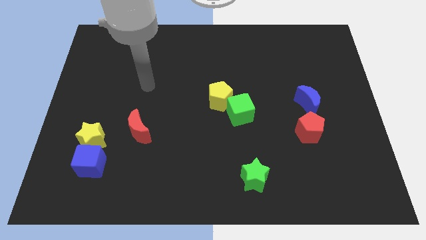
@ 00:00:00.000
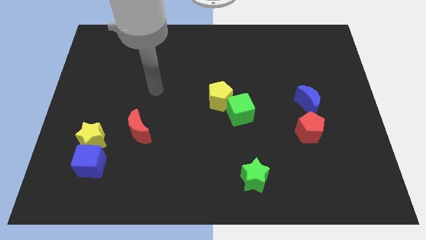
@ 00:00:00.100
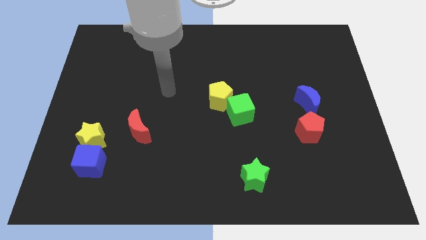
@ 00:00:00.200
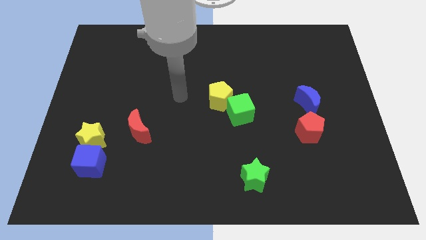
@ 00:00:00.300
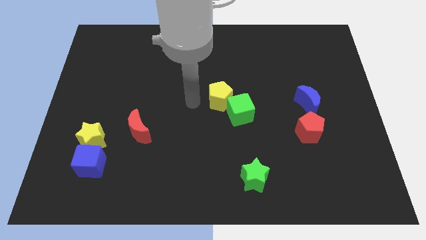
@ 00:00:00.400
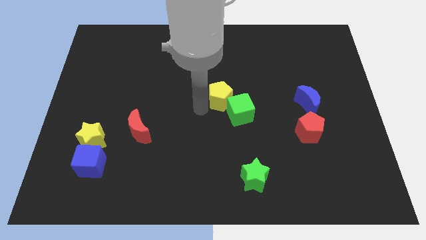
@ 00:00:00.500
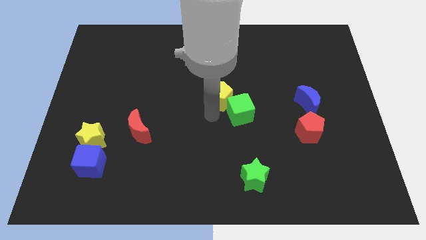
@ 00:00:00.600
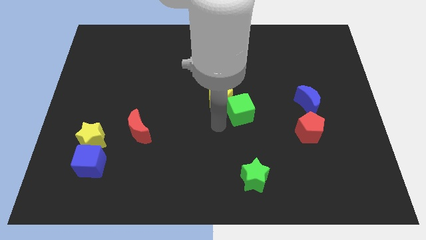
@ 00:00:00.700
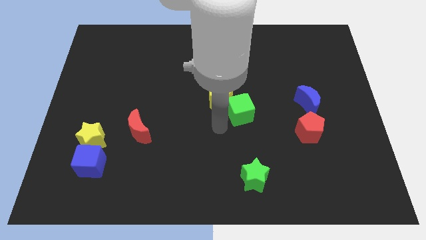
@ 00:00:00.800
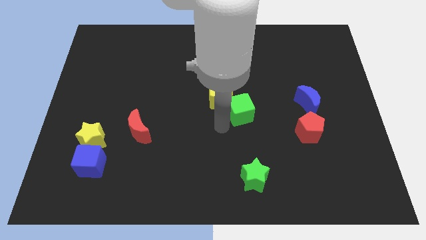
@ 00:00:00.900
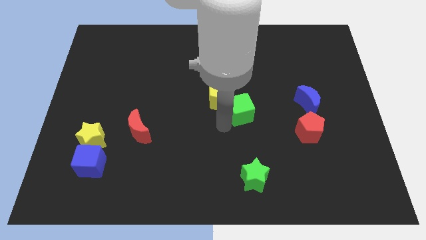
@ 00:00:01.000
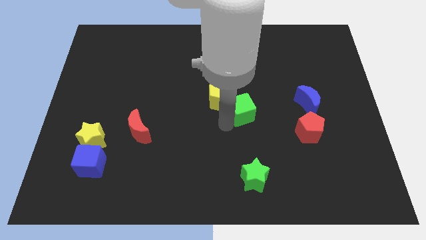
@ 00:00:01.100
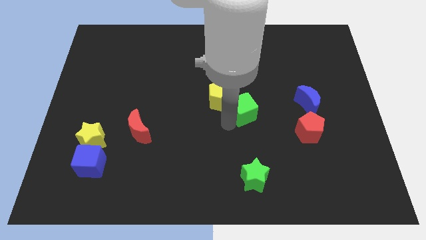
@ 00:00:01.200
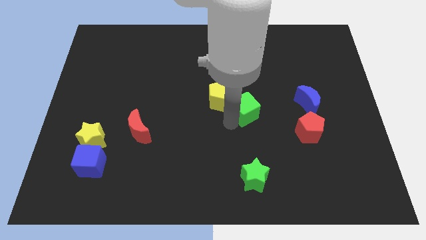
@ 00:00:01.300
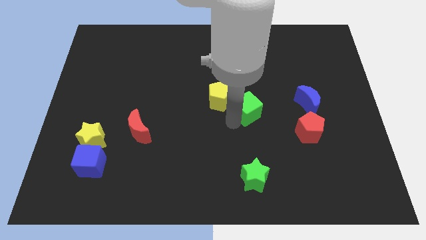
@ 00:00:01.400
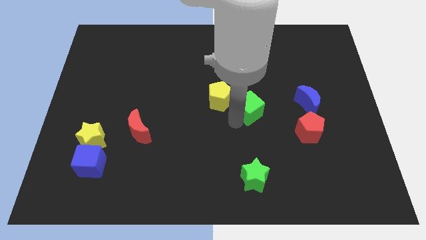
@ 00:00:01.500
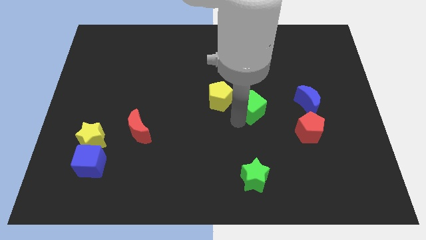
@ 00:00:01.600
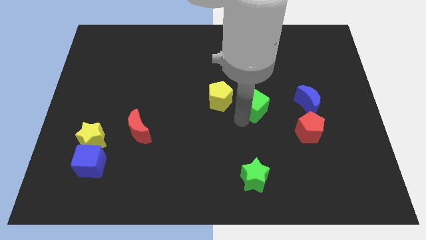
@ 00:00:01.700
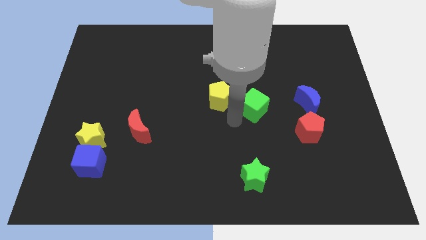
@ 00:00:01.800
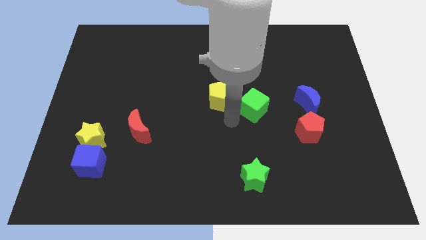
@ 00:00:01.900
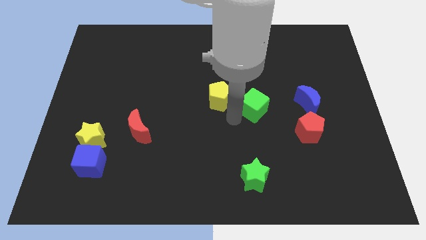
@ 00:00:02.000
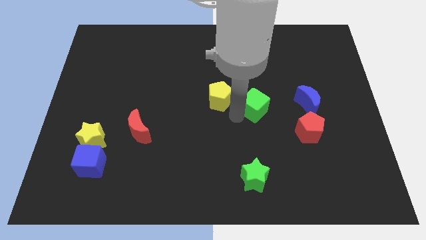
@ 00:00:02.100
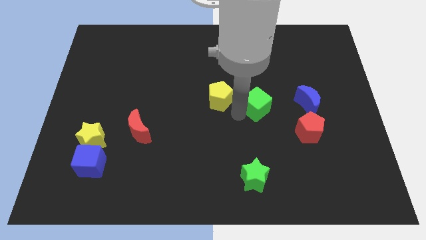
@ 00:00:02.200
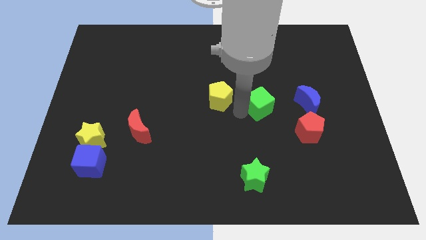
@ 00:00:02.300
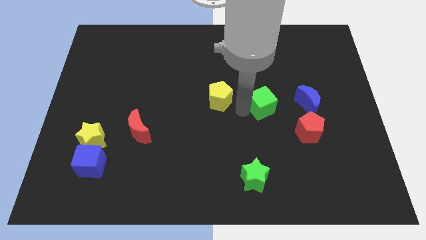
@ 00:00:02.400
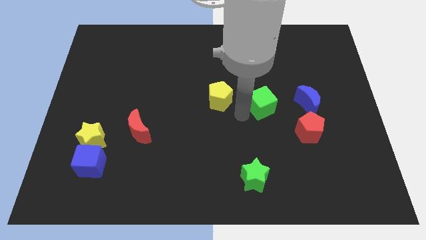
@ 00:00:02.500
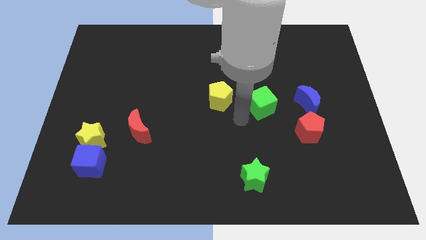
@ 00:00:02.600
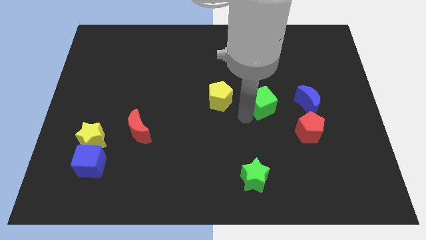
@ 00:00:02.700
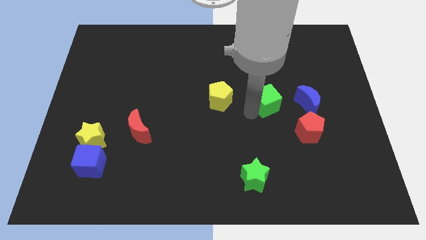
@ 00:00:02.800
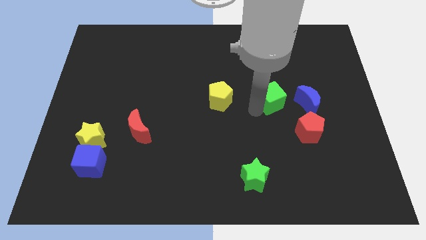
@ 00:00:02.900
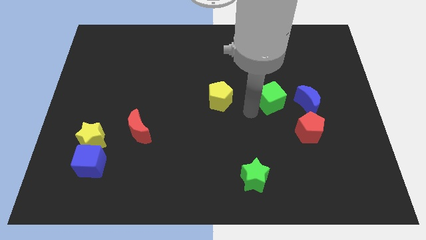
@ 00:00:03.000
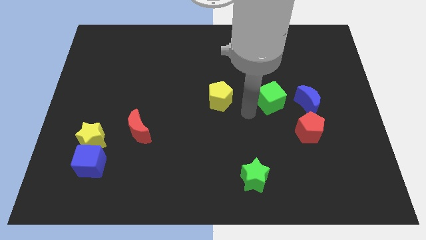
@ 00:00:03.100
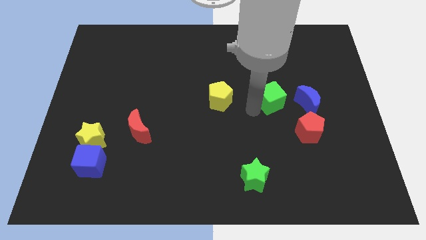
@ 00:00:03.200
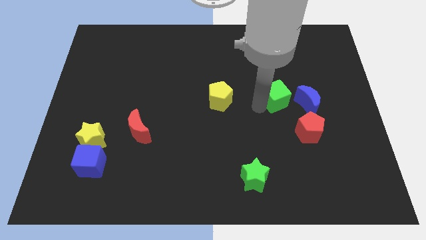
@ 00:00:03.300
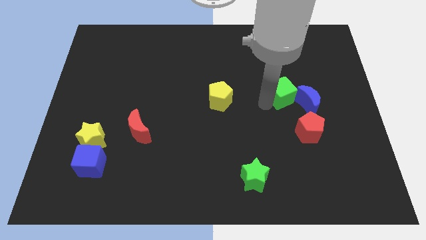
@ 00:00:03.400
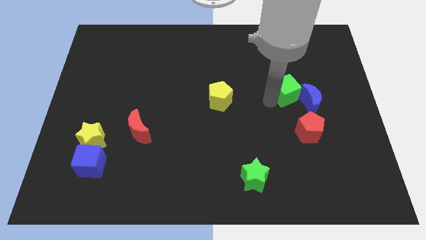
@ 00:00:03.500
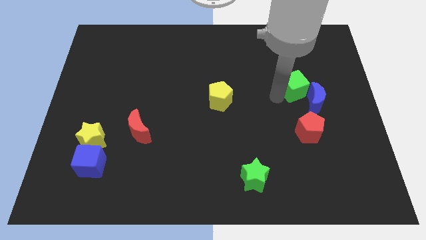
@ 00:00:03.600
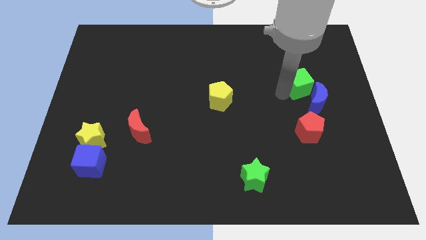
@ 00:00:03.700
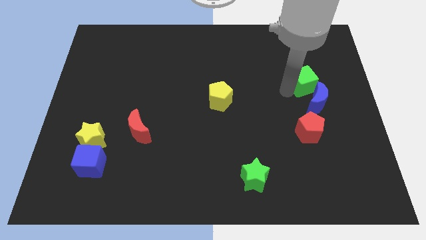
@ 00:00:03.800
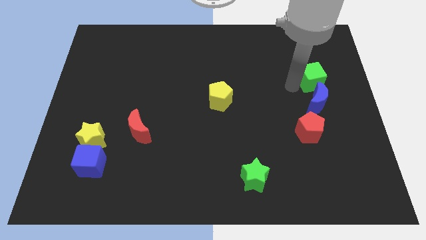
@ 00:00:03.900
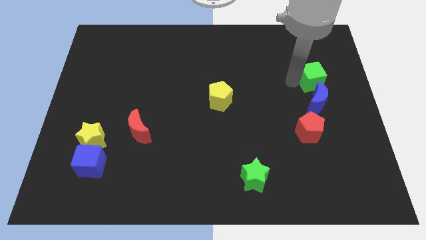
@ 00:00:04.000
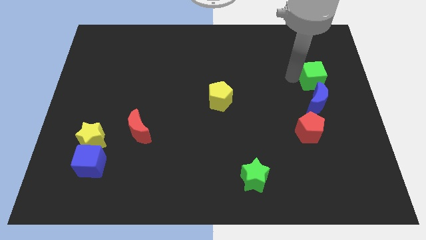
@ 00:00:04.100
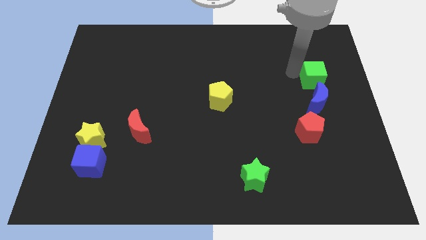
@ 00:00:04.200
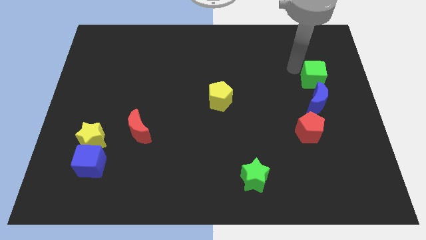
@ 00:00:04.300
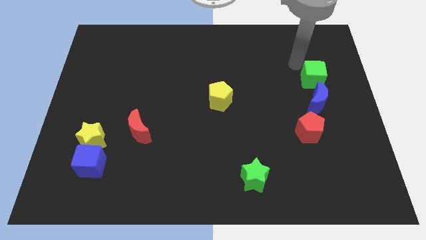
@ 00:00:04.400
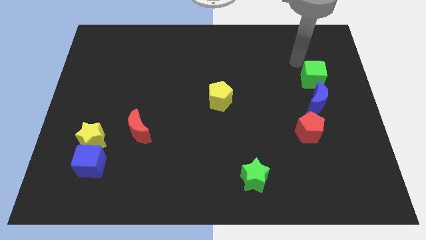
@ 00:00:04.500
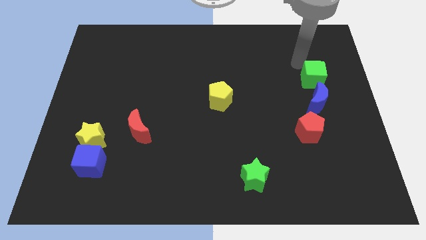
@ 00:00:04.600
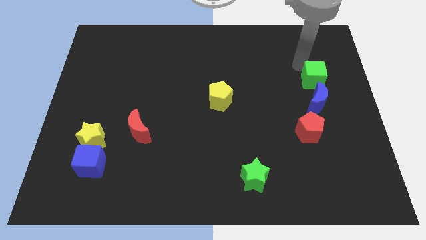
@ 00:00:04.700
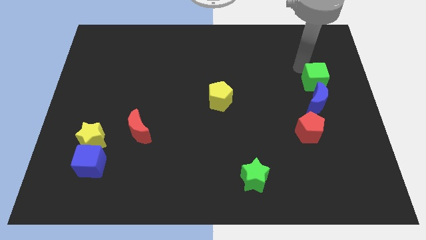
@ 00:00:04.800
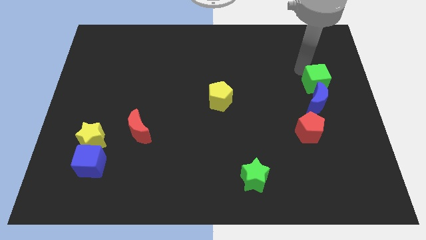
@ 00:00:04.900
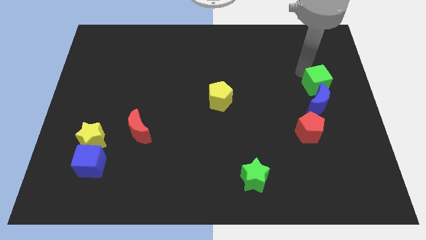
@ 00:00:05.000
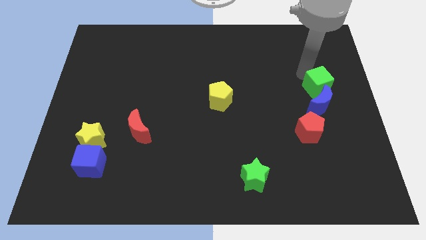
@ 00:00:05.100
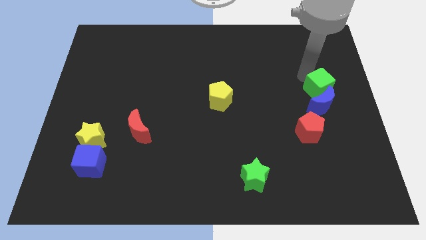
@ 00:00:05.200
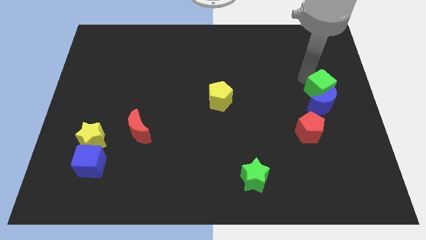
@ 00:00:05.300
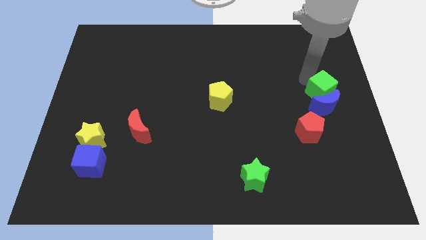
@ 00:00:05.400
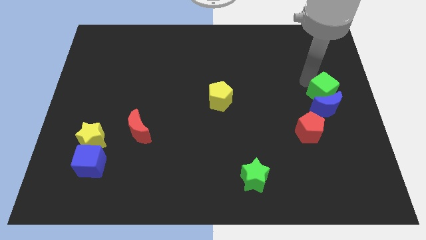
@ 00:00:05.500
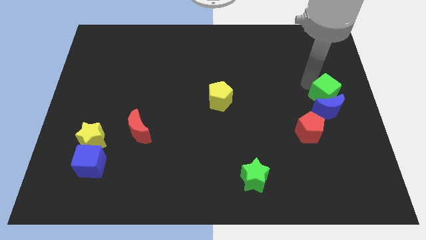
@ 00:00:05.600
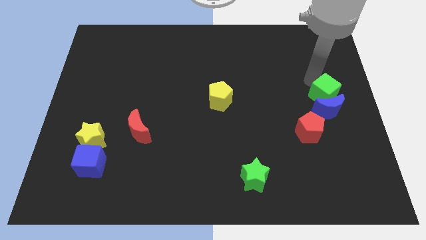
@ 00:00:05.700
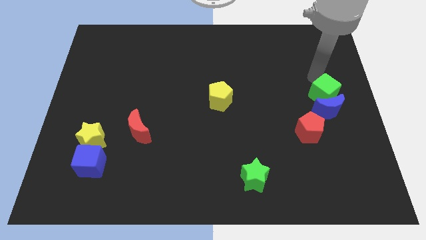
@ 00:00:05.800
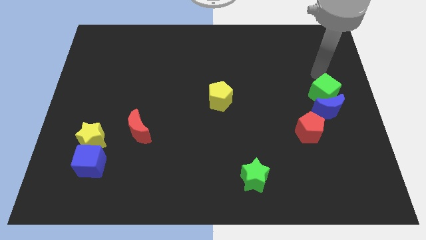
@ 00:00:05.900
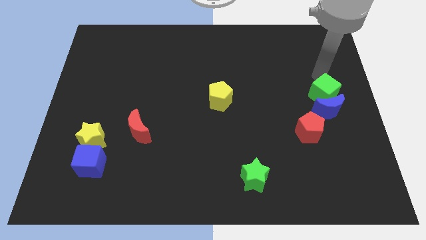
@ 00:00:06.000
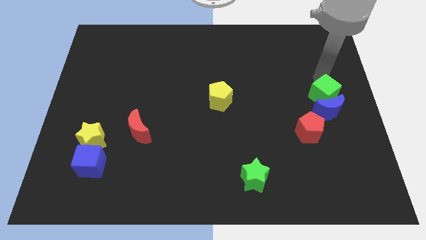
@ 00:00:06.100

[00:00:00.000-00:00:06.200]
move the green cube to the top right of the red pentagon

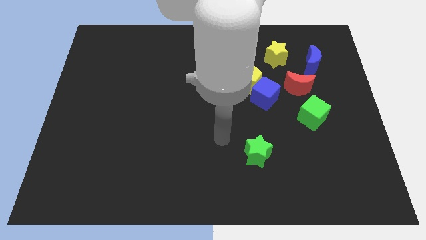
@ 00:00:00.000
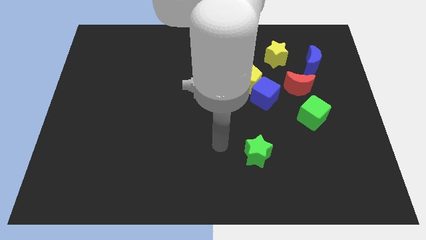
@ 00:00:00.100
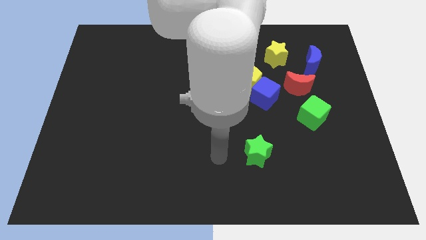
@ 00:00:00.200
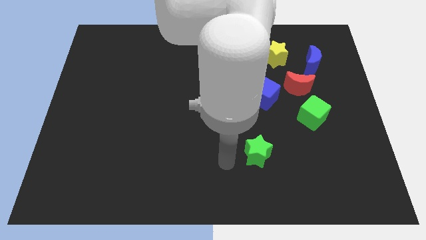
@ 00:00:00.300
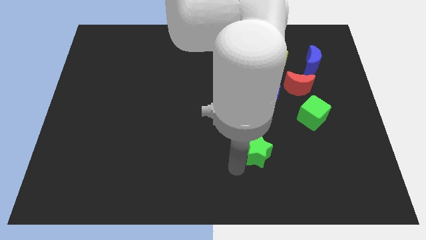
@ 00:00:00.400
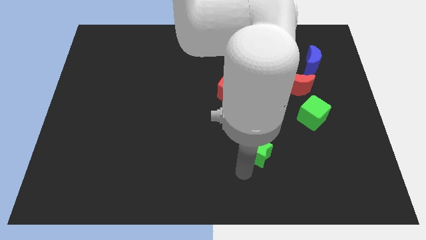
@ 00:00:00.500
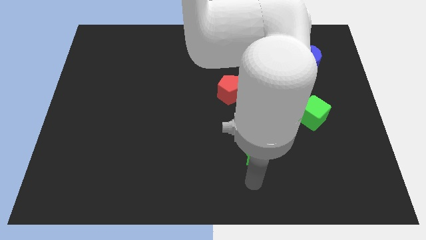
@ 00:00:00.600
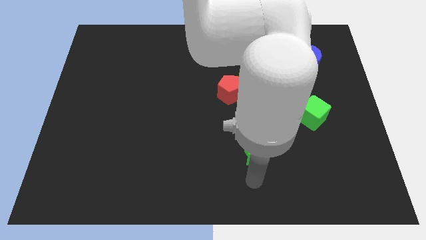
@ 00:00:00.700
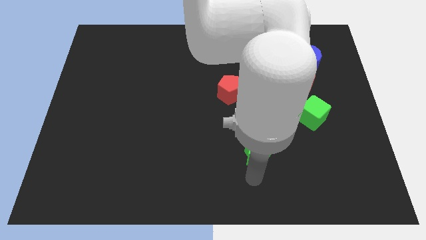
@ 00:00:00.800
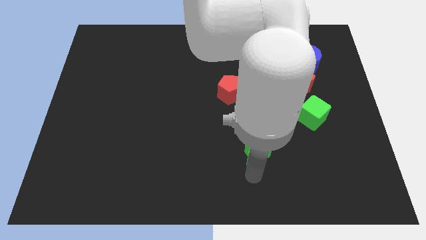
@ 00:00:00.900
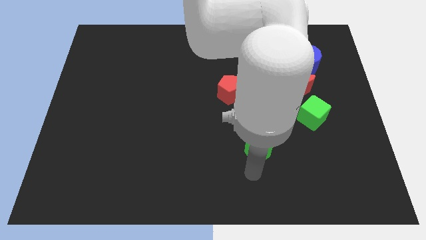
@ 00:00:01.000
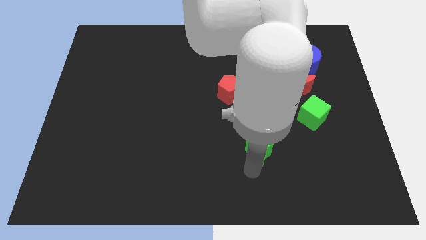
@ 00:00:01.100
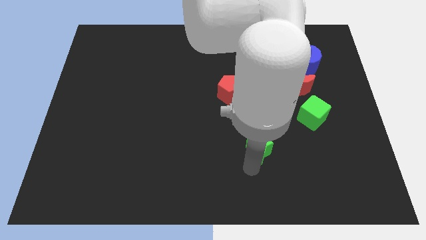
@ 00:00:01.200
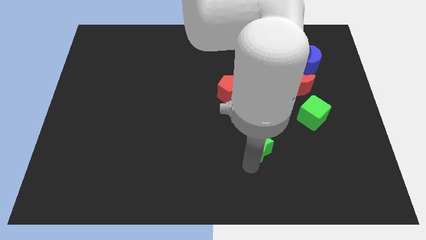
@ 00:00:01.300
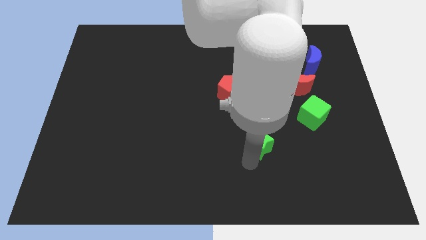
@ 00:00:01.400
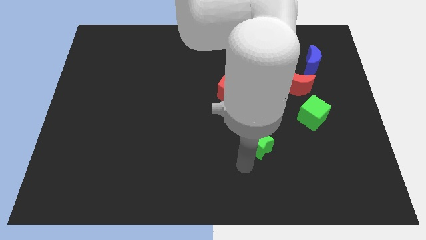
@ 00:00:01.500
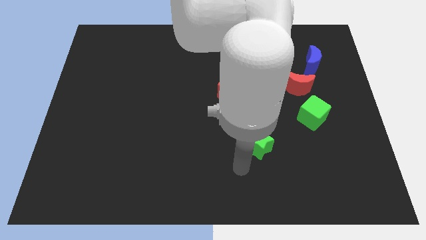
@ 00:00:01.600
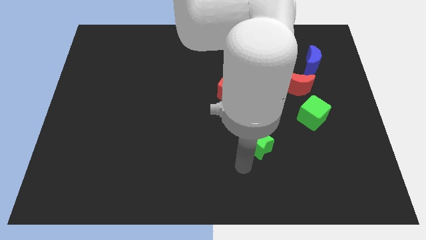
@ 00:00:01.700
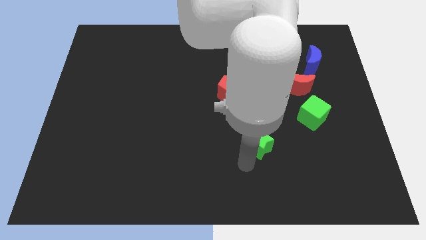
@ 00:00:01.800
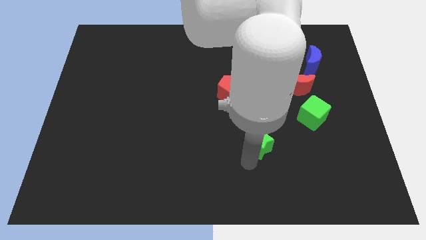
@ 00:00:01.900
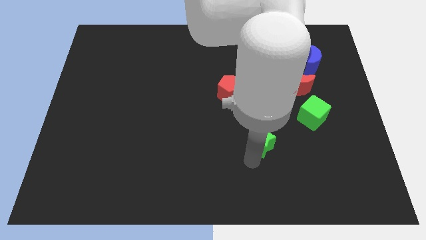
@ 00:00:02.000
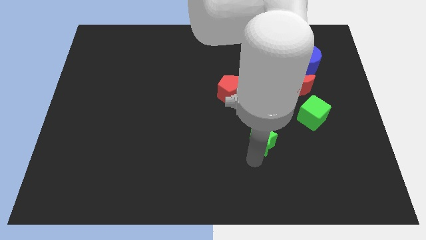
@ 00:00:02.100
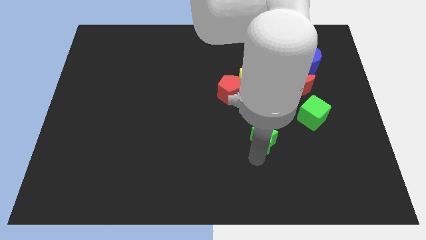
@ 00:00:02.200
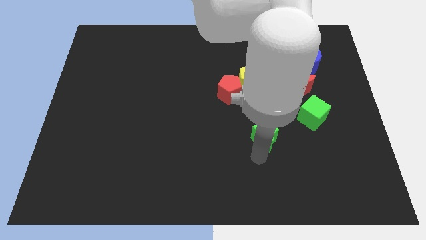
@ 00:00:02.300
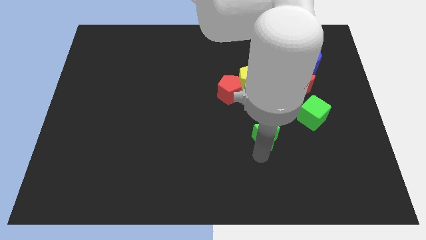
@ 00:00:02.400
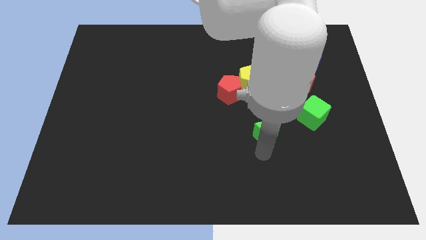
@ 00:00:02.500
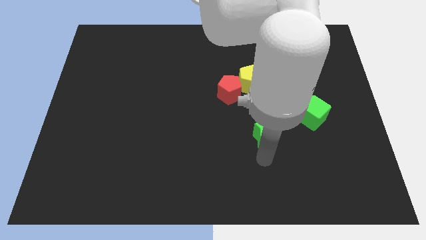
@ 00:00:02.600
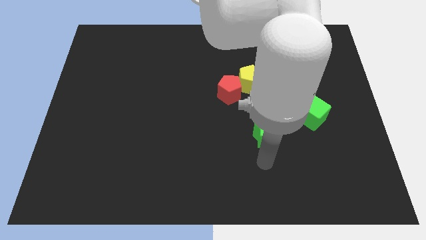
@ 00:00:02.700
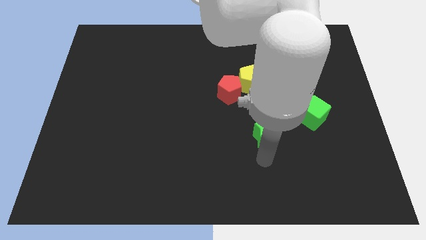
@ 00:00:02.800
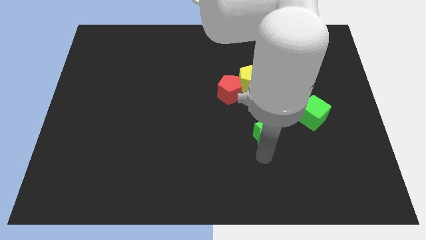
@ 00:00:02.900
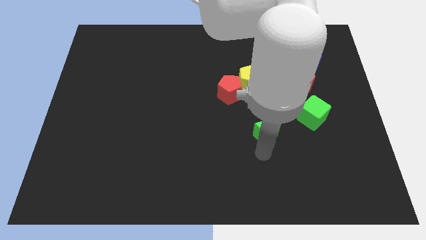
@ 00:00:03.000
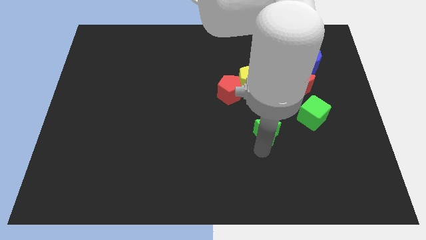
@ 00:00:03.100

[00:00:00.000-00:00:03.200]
push the green star left of the green cube
